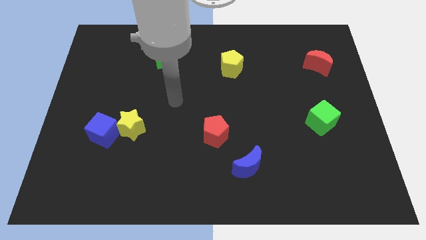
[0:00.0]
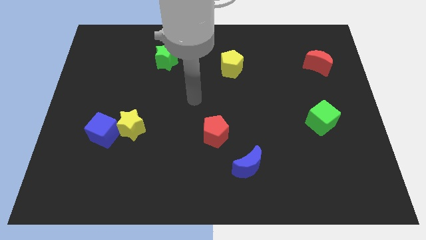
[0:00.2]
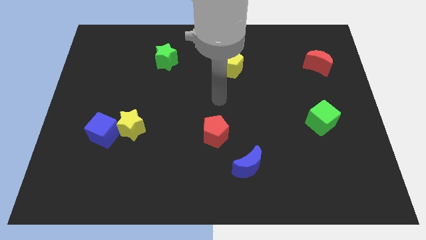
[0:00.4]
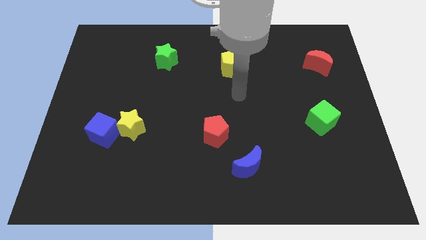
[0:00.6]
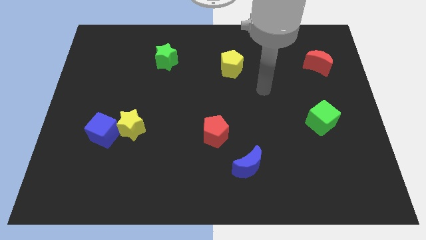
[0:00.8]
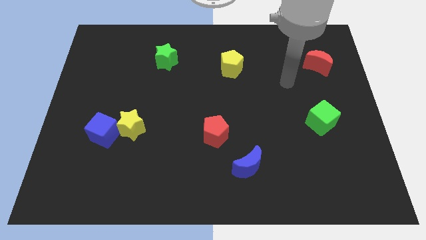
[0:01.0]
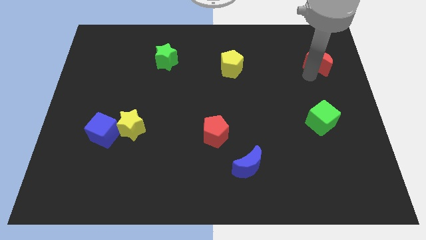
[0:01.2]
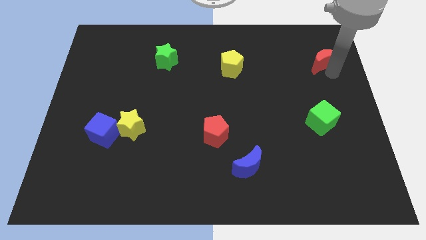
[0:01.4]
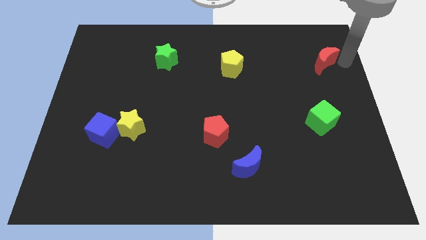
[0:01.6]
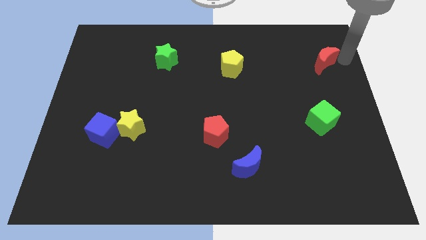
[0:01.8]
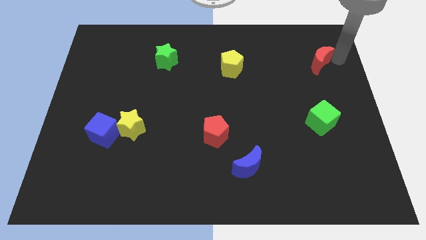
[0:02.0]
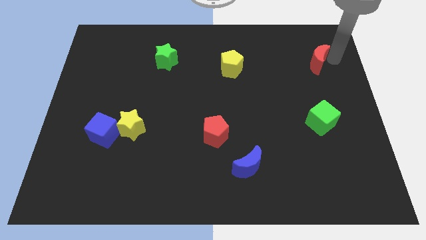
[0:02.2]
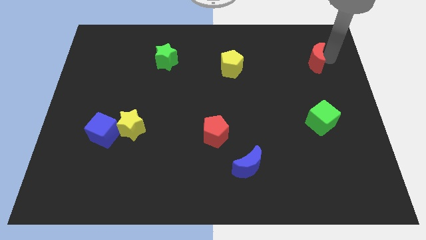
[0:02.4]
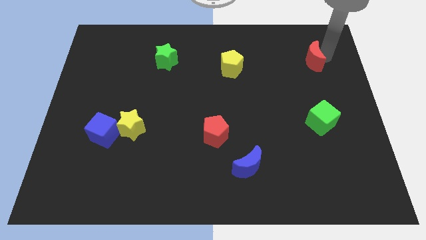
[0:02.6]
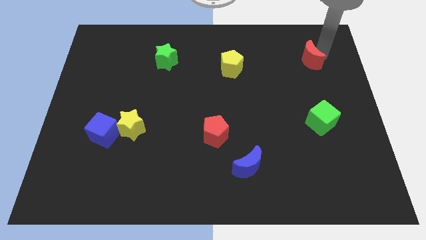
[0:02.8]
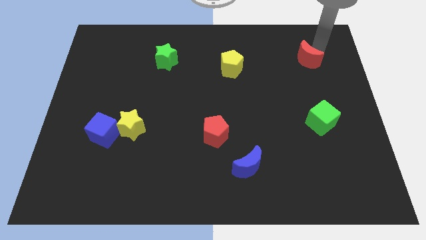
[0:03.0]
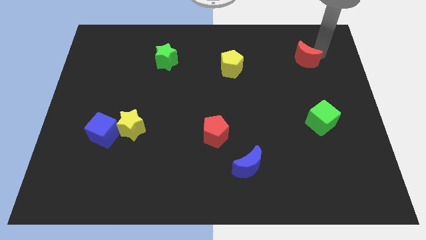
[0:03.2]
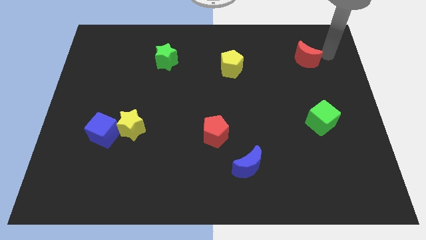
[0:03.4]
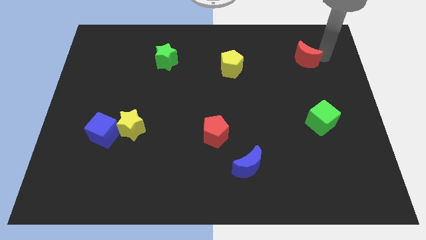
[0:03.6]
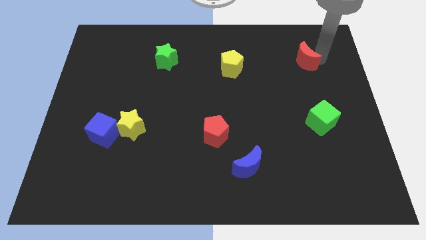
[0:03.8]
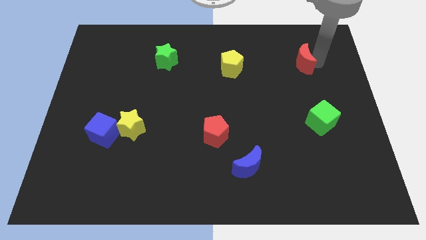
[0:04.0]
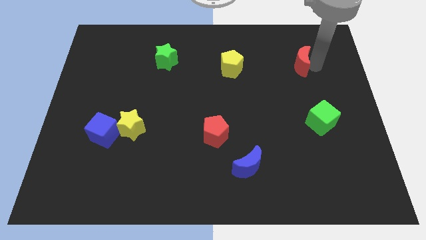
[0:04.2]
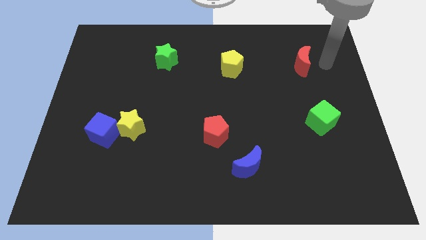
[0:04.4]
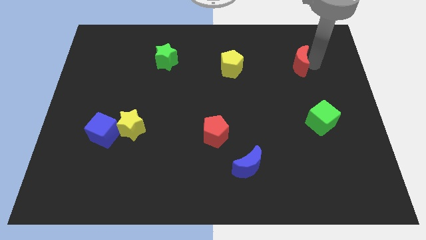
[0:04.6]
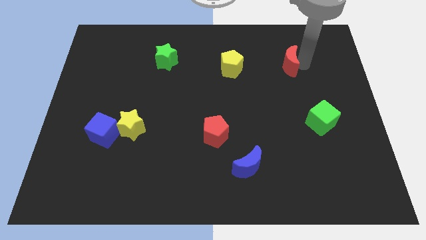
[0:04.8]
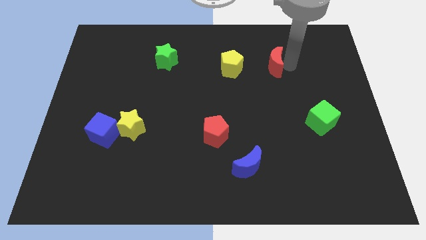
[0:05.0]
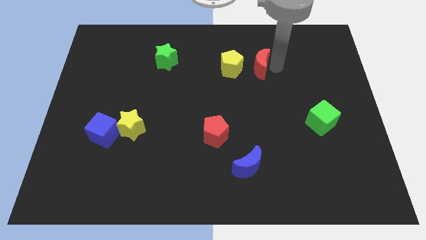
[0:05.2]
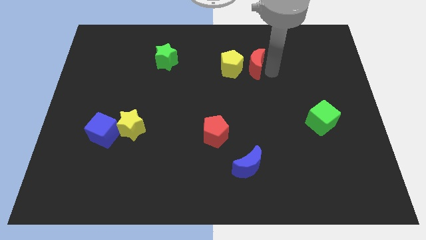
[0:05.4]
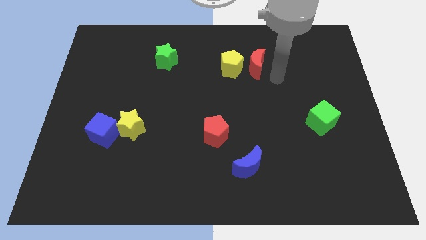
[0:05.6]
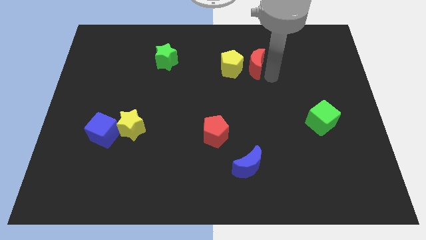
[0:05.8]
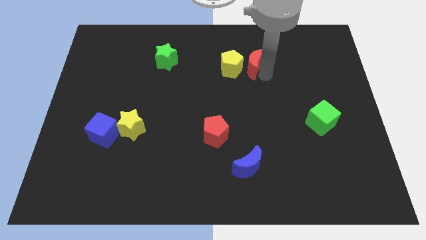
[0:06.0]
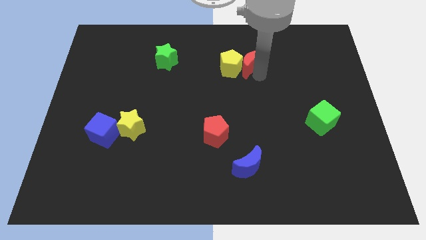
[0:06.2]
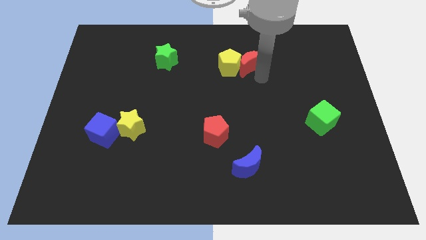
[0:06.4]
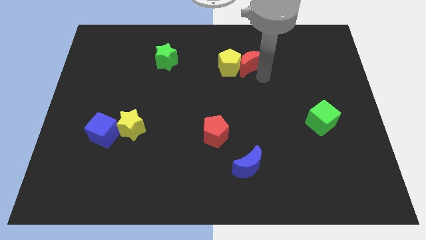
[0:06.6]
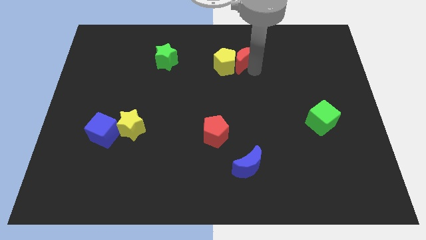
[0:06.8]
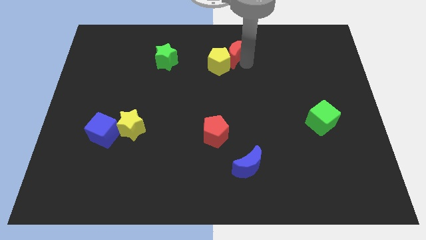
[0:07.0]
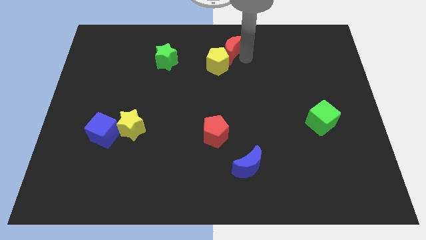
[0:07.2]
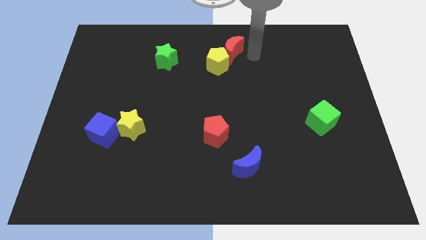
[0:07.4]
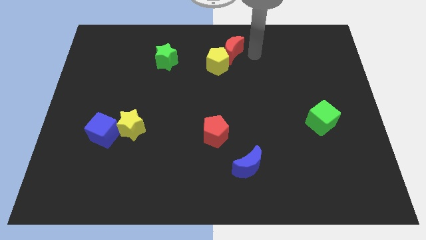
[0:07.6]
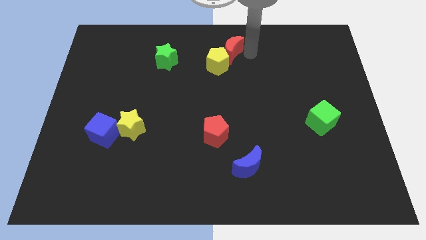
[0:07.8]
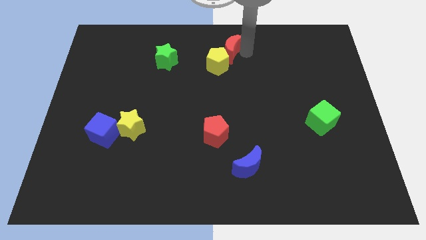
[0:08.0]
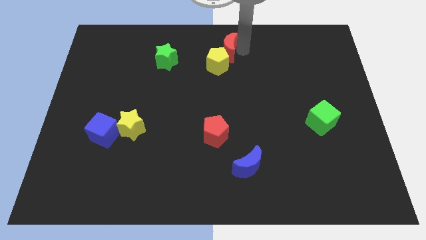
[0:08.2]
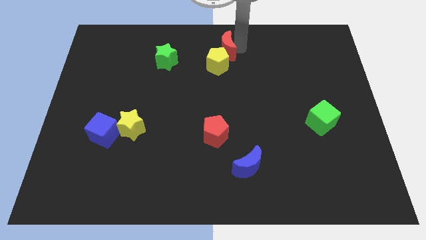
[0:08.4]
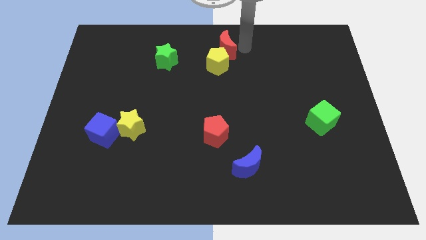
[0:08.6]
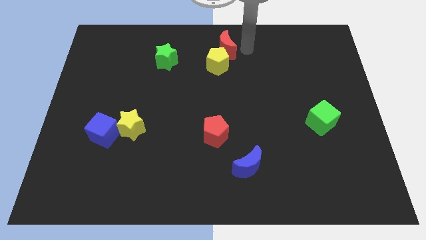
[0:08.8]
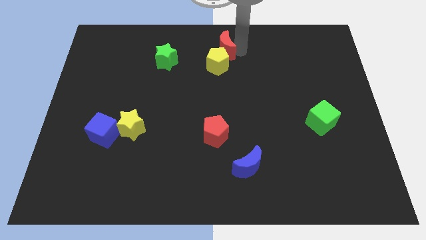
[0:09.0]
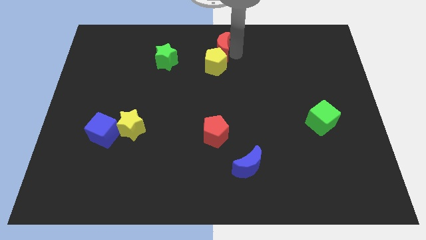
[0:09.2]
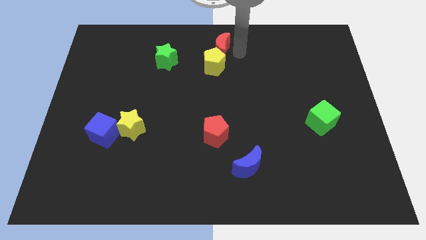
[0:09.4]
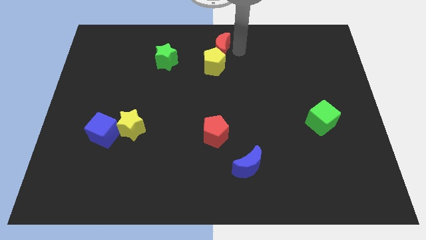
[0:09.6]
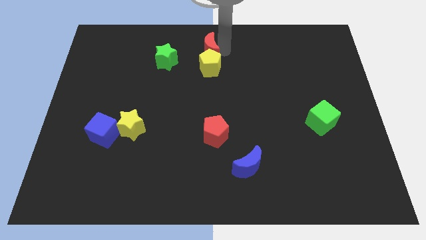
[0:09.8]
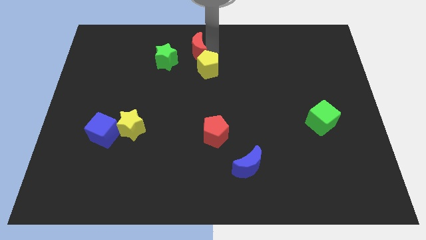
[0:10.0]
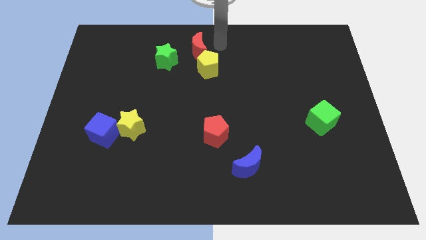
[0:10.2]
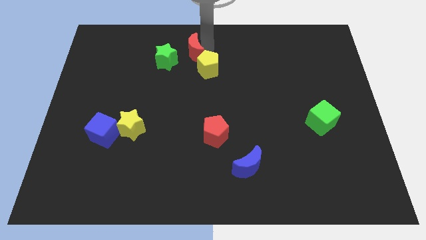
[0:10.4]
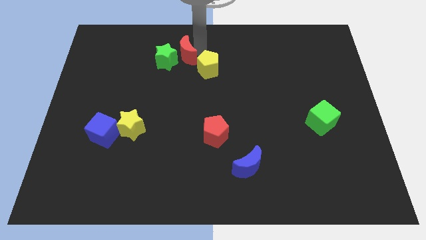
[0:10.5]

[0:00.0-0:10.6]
move the red moon towards the green star

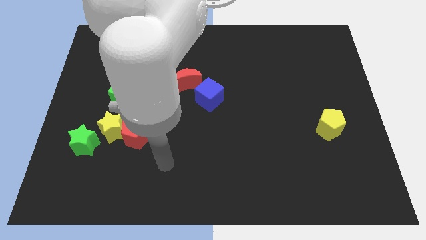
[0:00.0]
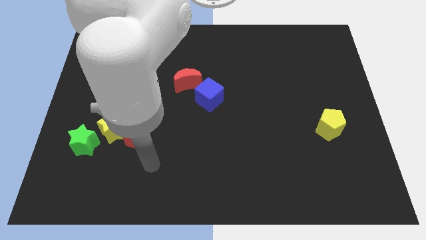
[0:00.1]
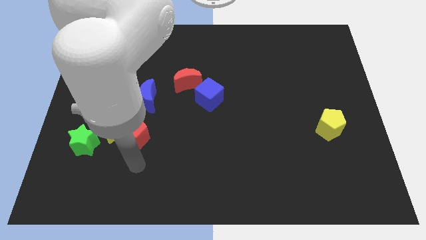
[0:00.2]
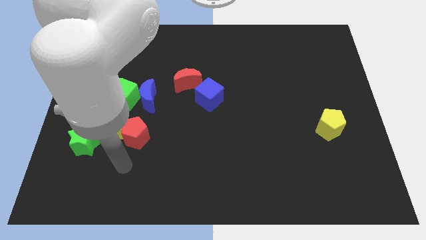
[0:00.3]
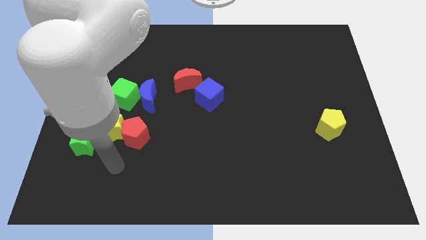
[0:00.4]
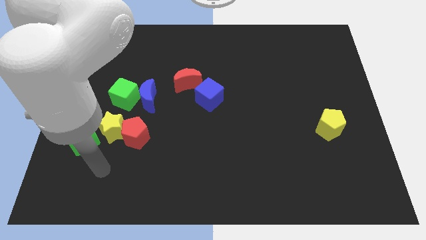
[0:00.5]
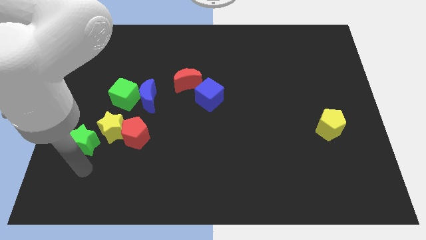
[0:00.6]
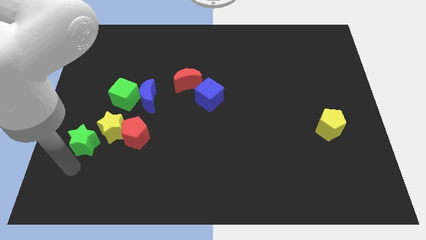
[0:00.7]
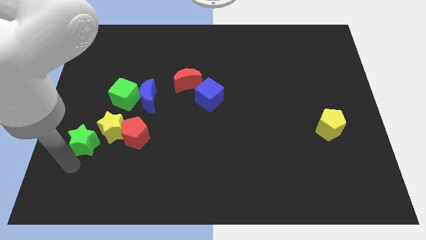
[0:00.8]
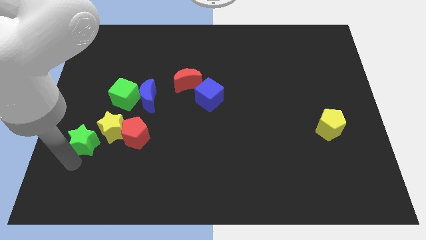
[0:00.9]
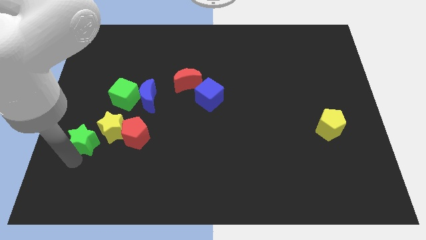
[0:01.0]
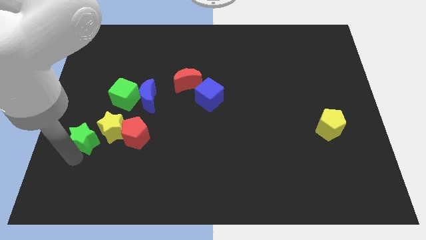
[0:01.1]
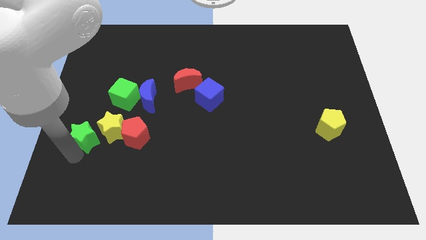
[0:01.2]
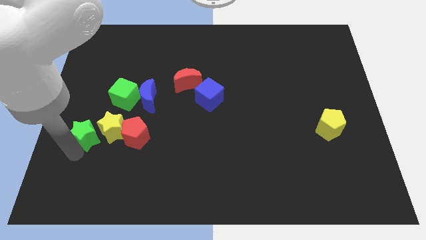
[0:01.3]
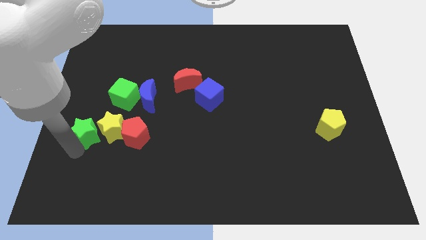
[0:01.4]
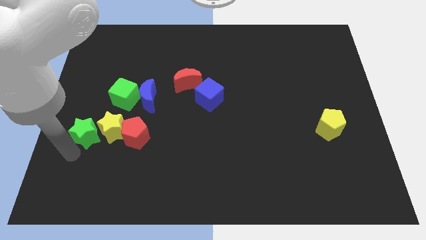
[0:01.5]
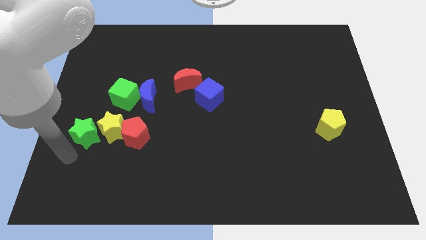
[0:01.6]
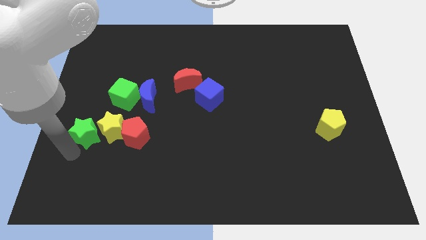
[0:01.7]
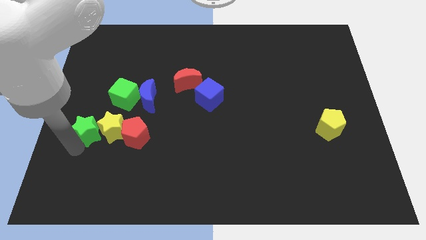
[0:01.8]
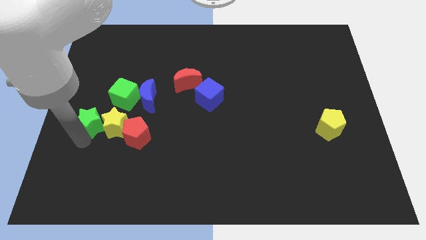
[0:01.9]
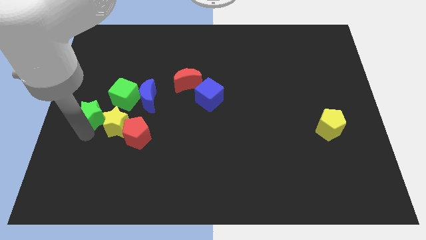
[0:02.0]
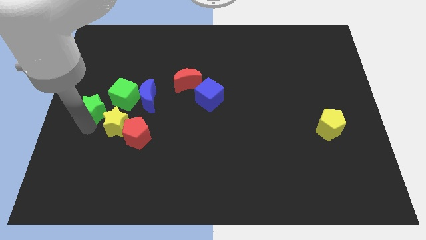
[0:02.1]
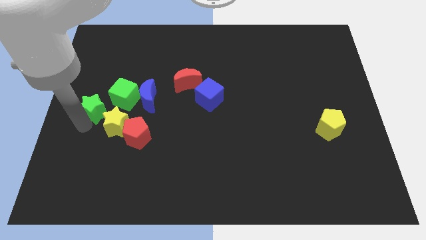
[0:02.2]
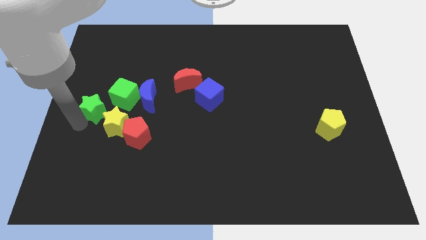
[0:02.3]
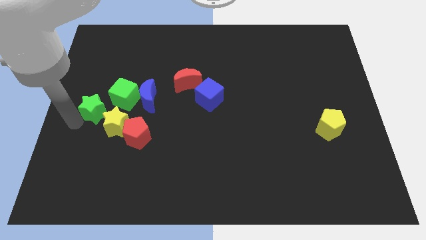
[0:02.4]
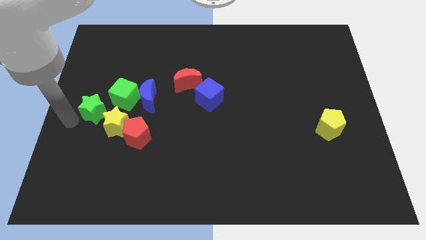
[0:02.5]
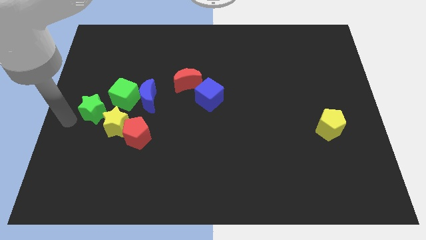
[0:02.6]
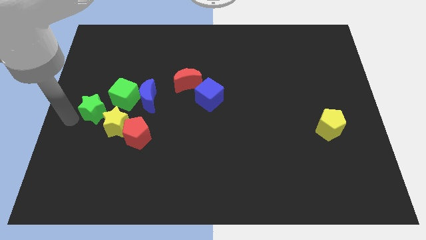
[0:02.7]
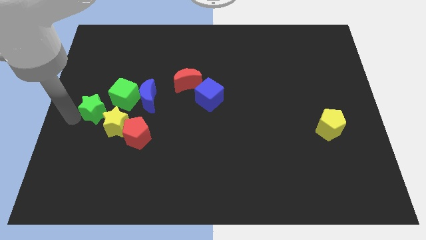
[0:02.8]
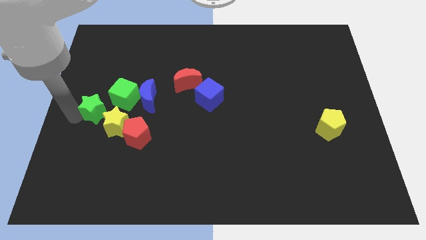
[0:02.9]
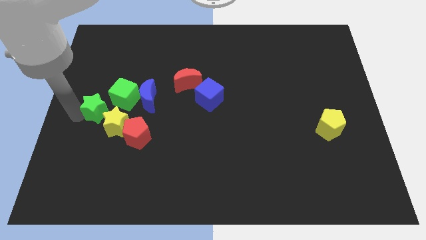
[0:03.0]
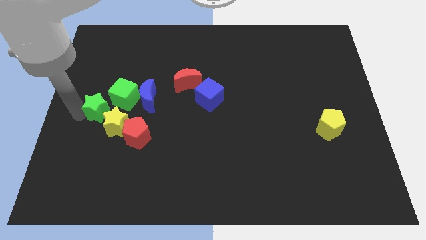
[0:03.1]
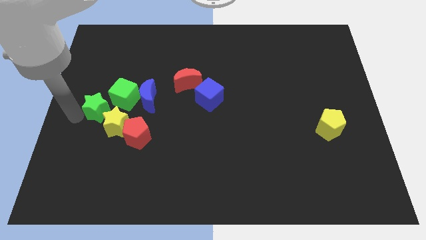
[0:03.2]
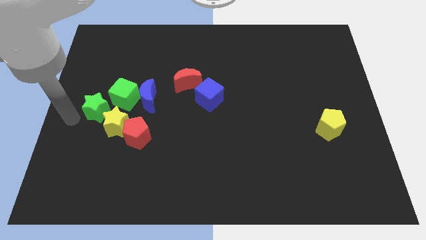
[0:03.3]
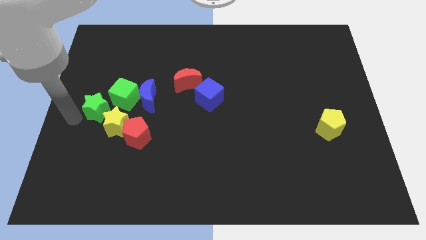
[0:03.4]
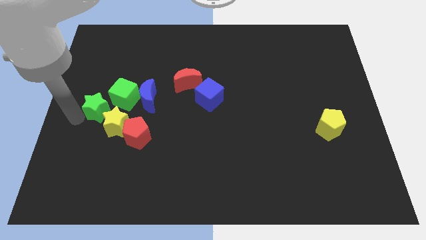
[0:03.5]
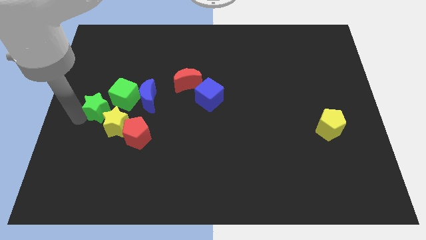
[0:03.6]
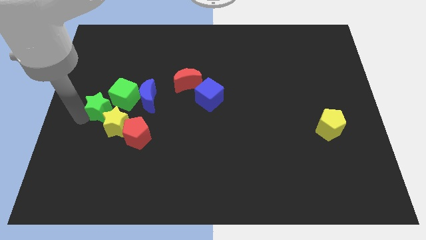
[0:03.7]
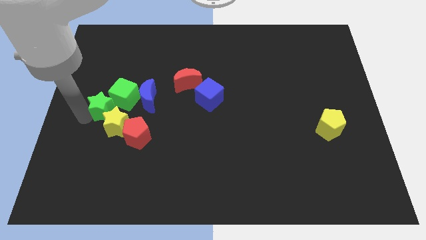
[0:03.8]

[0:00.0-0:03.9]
push the green star next to the green cube
